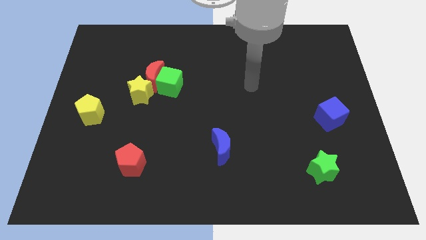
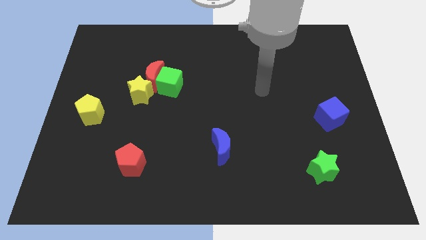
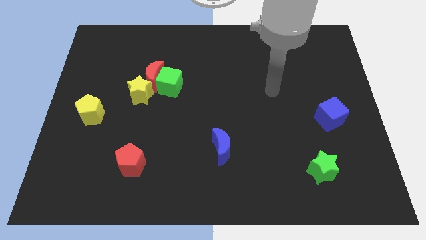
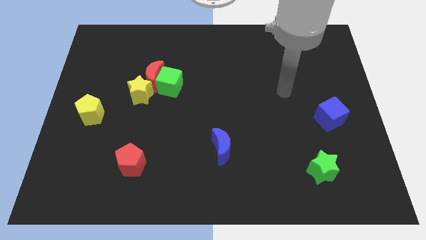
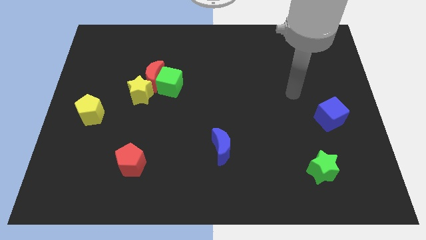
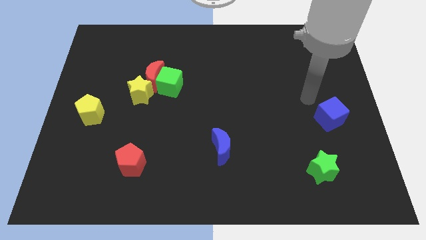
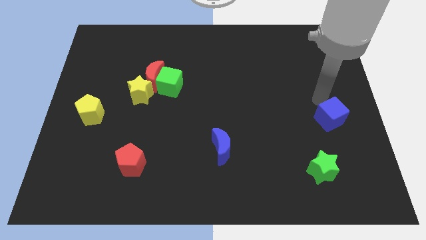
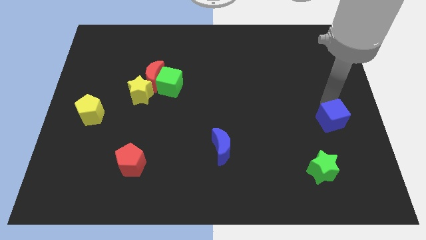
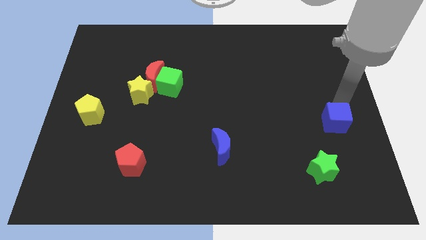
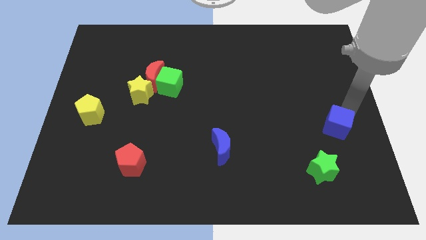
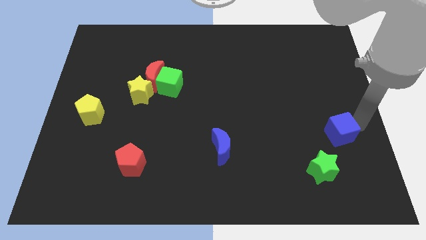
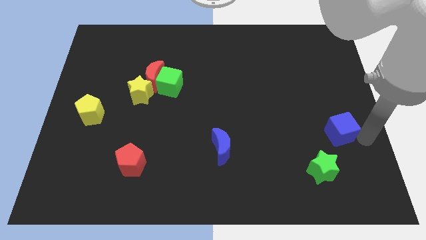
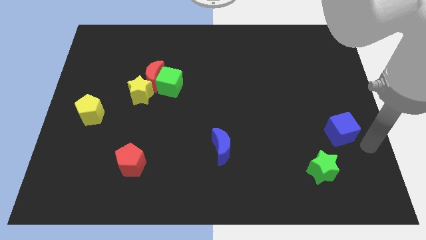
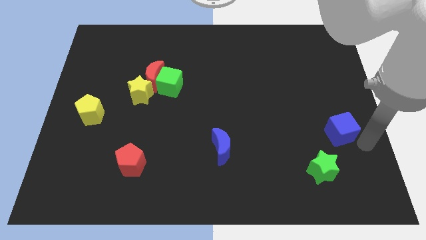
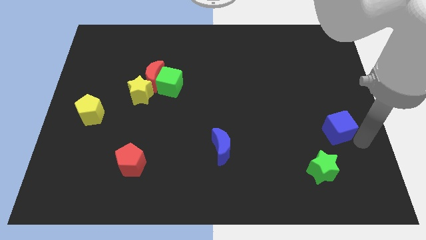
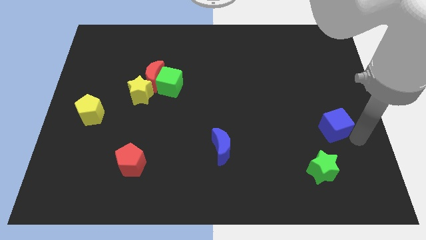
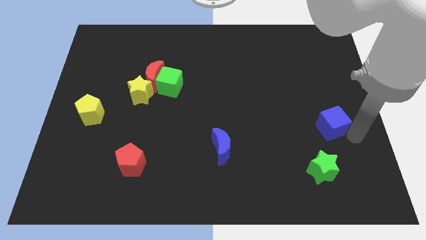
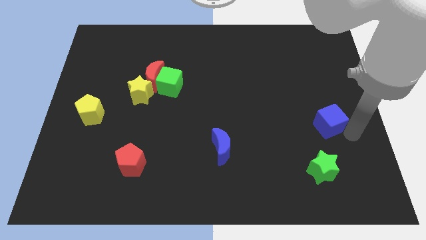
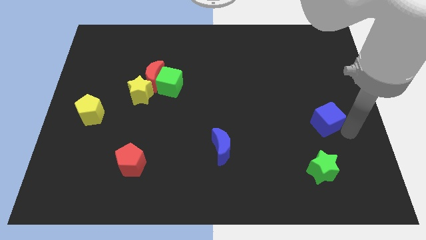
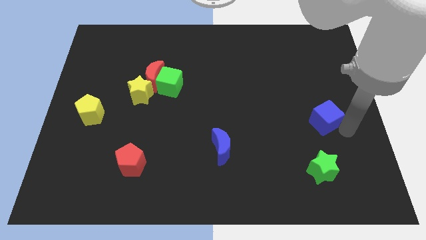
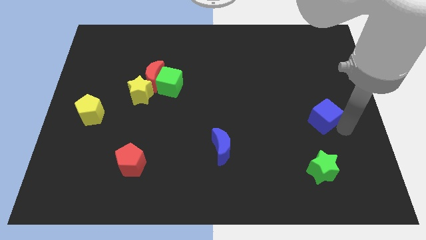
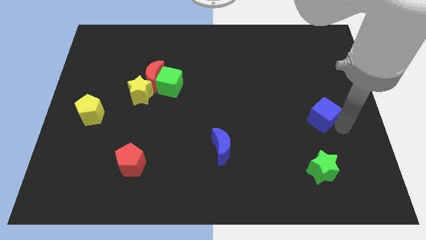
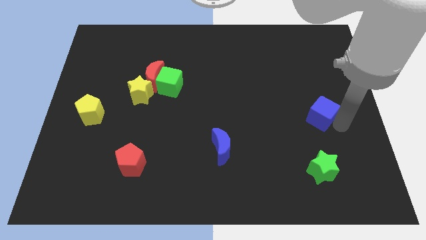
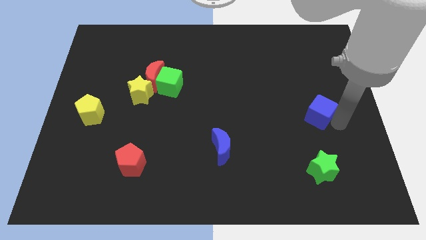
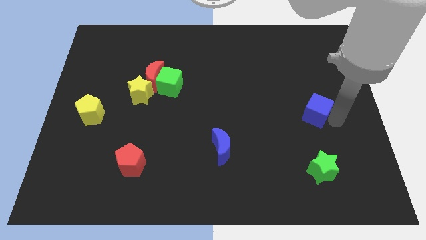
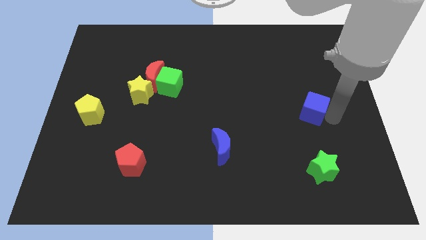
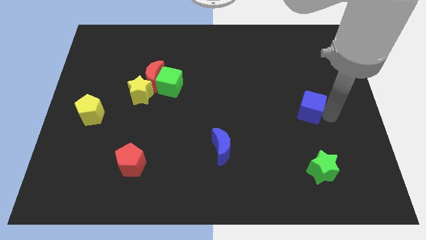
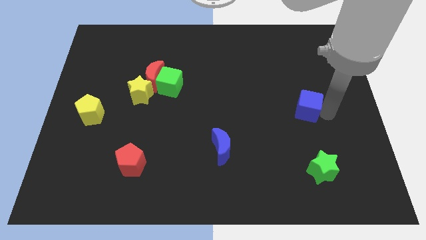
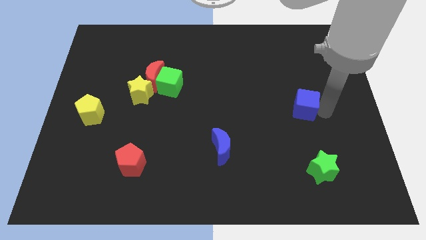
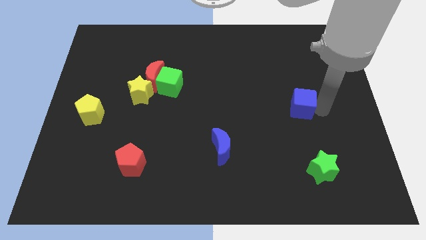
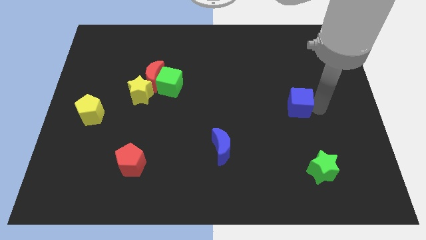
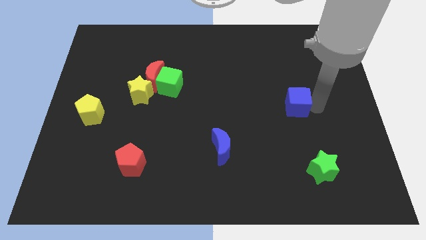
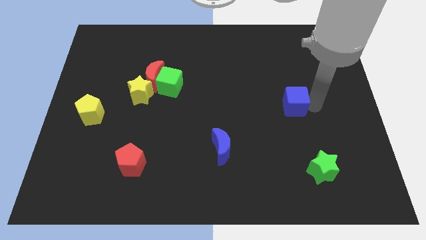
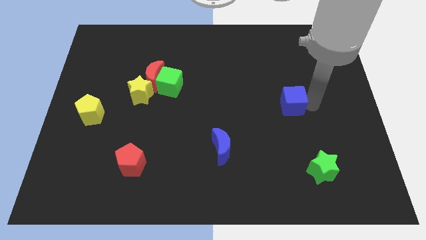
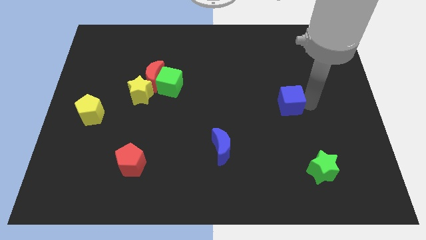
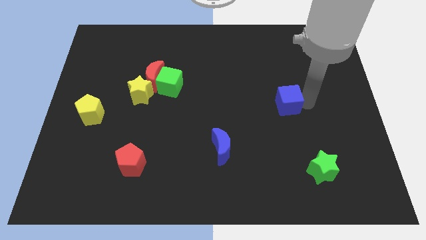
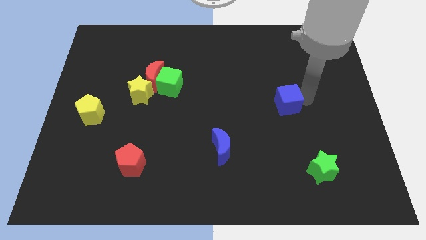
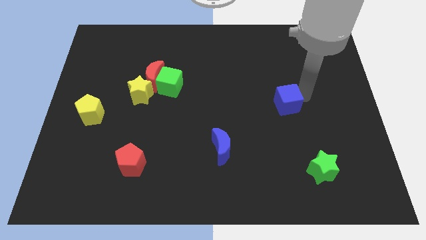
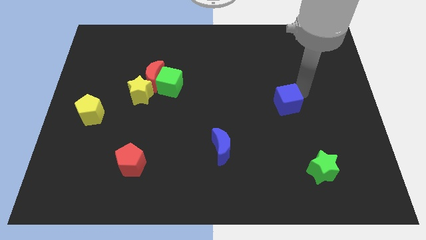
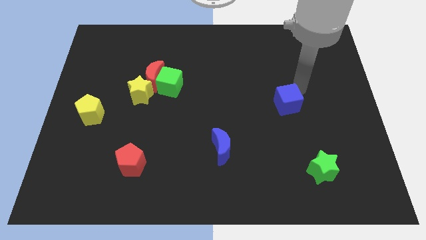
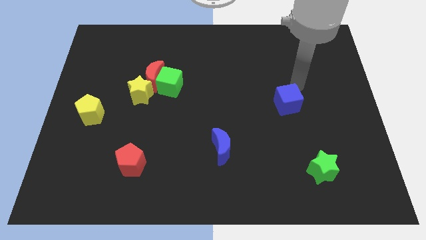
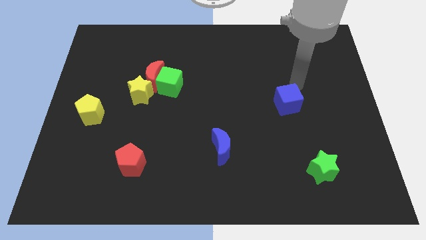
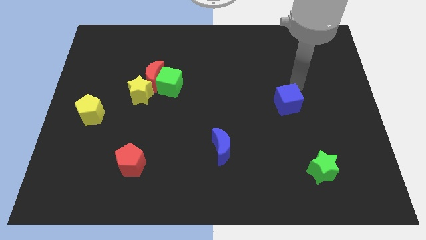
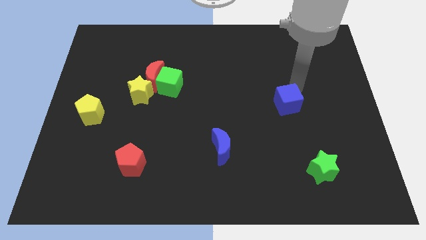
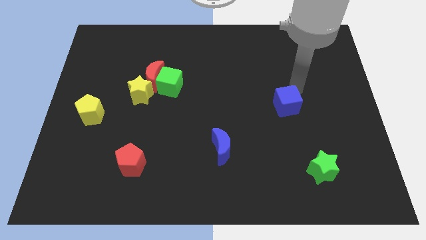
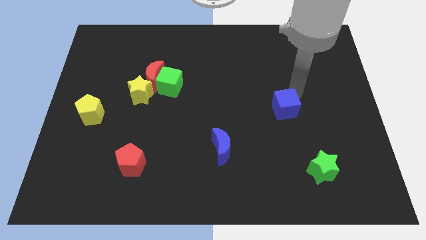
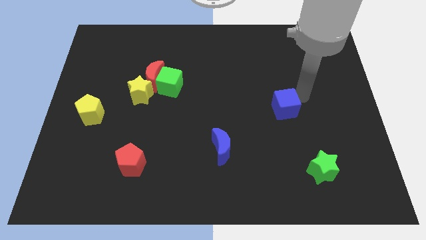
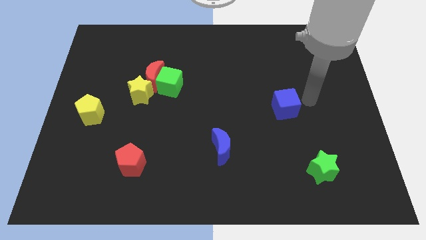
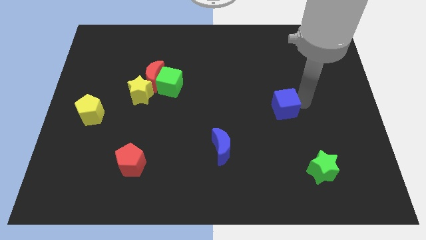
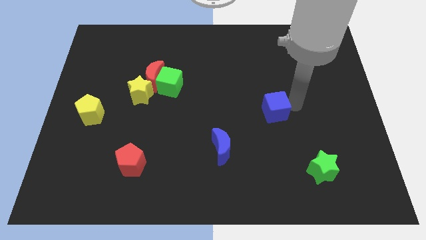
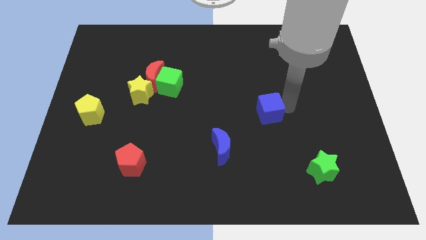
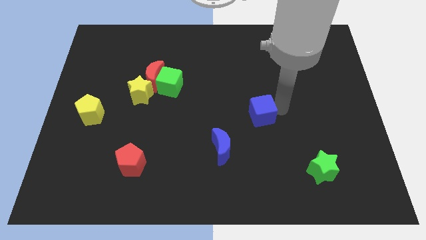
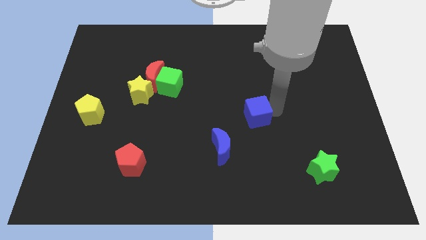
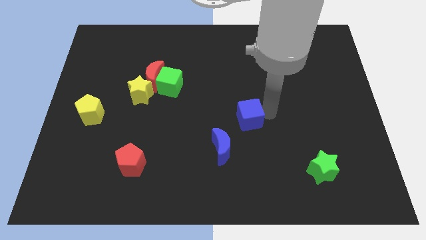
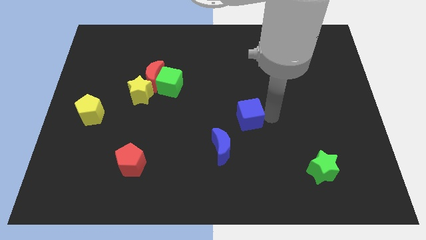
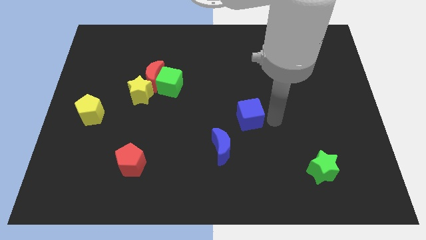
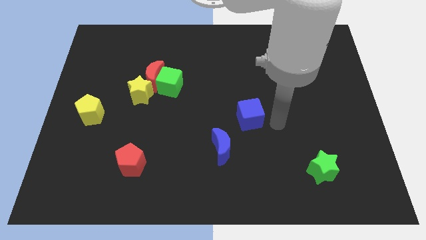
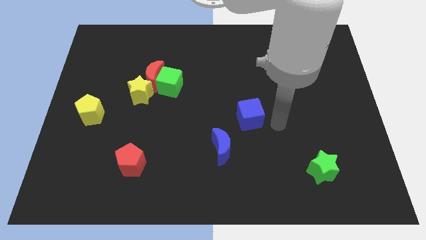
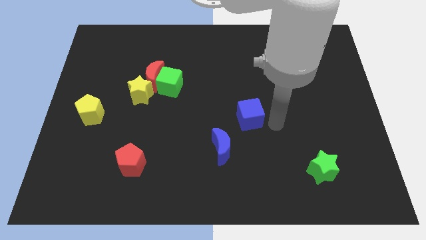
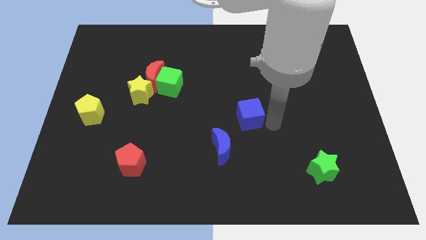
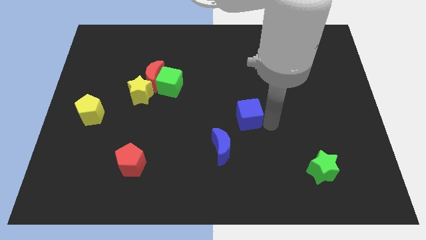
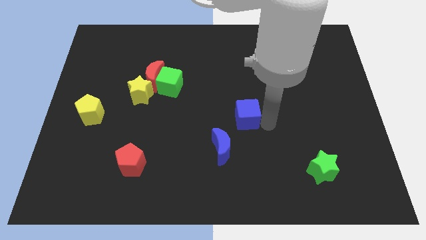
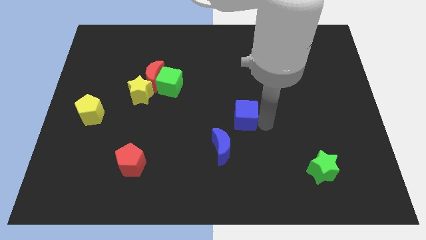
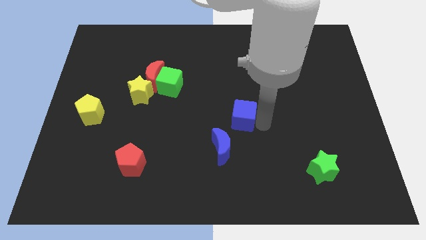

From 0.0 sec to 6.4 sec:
move the blue cube to the left

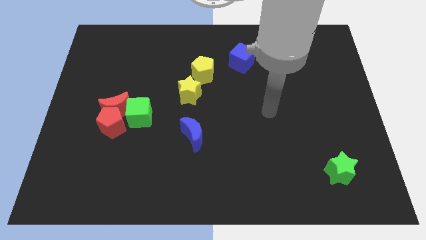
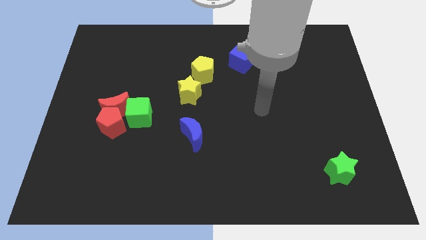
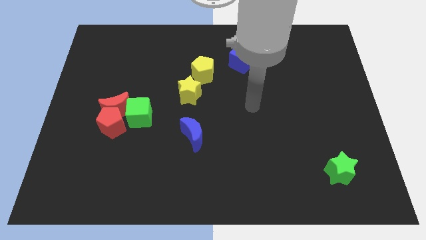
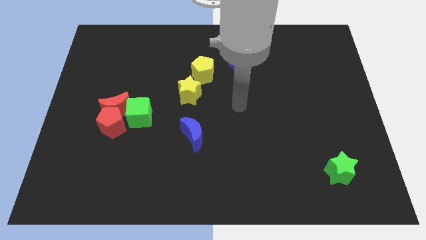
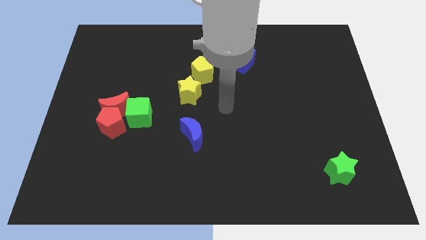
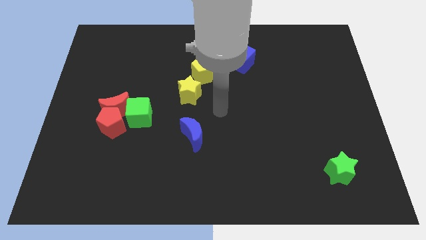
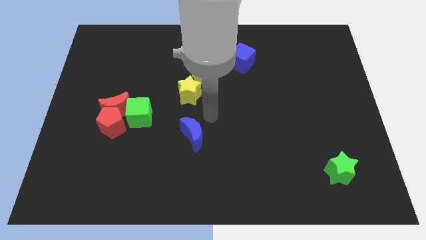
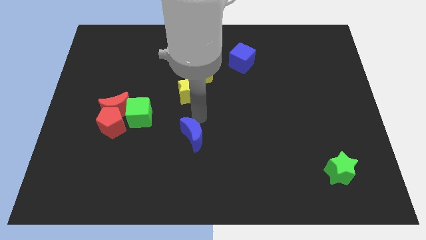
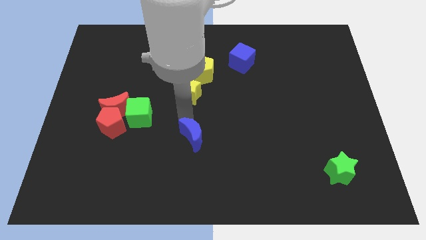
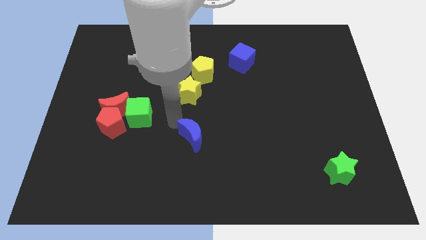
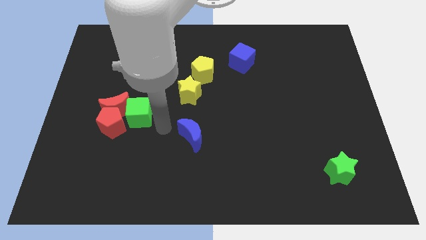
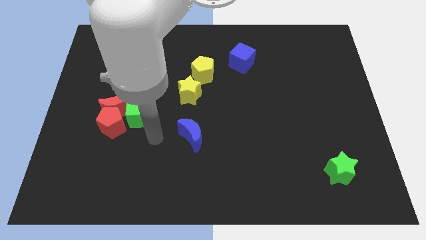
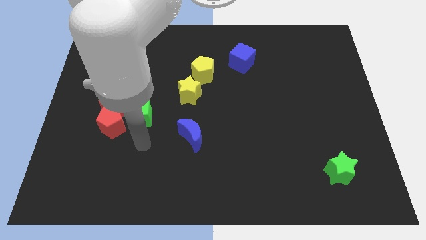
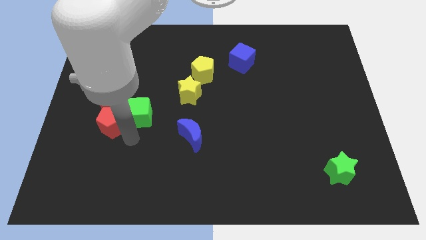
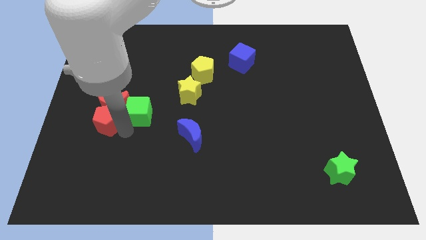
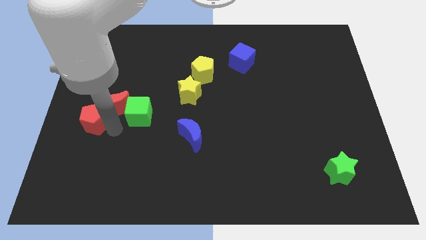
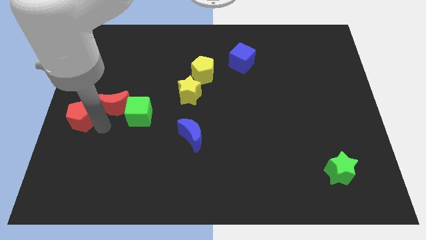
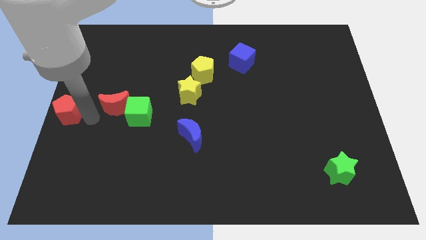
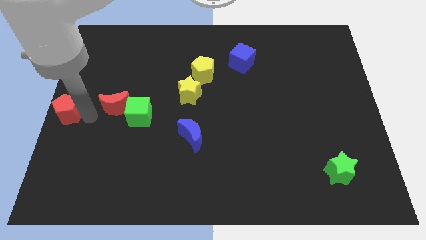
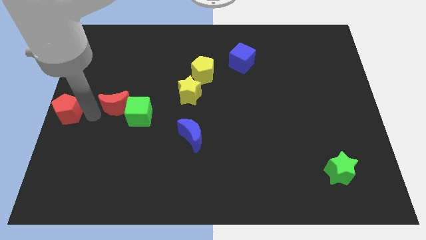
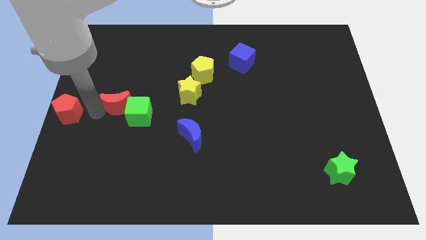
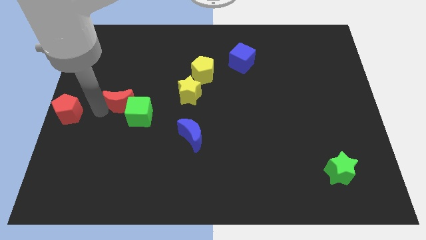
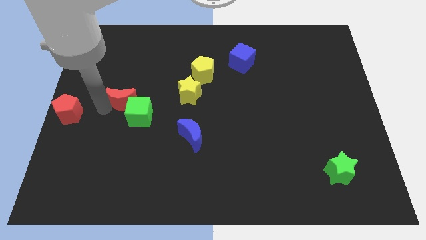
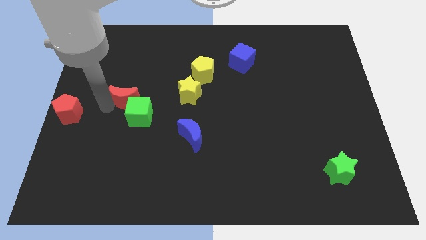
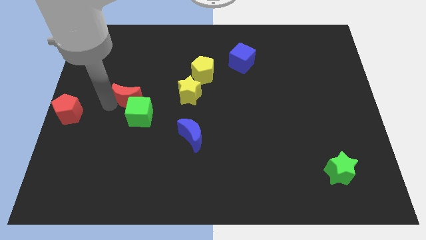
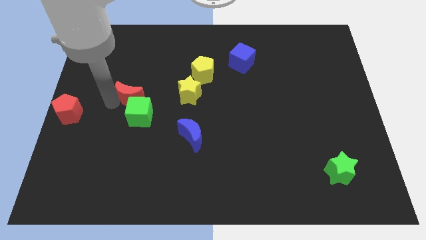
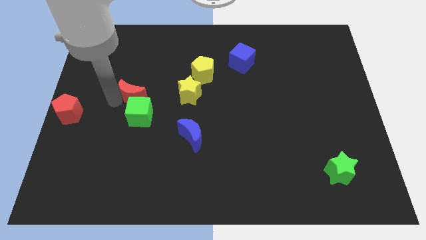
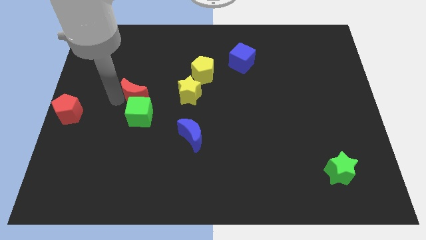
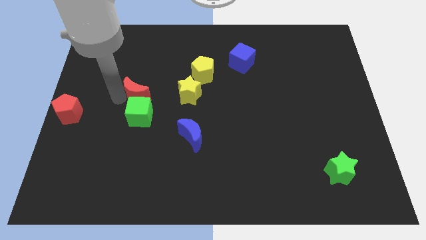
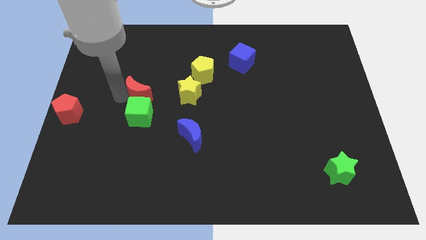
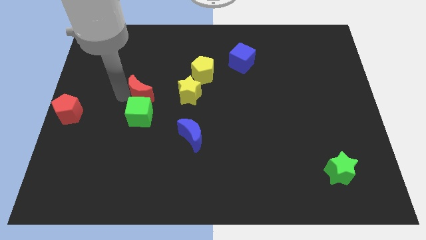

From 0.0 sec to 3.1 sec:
slightly move the red moon diagonally up and right
